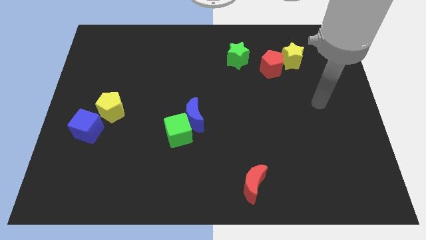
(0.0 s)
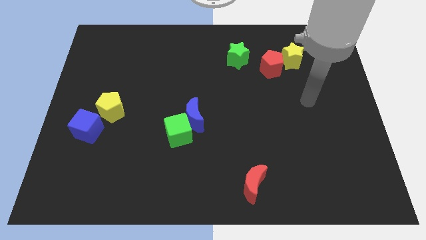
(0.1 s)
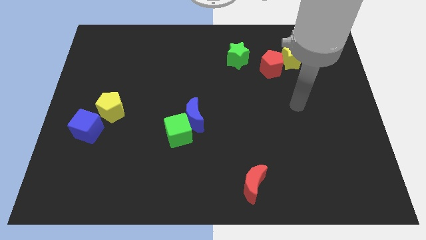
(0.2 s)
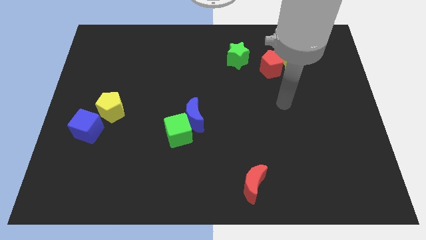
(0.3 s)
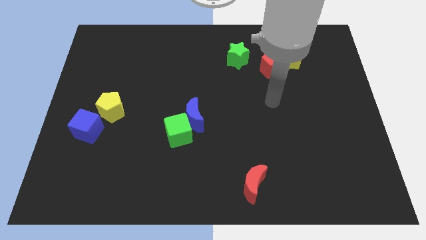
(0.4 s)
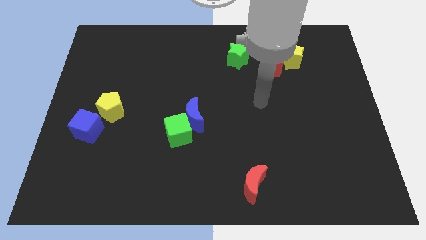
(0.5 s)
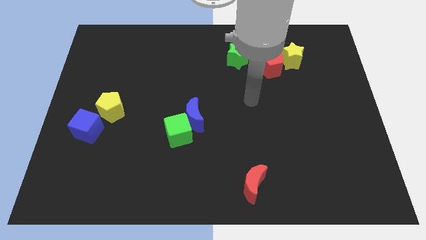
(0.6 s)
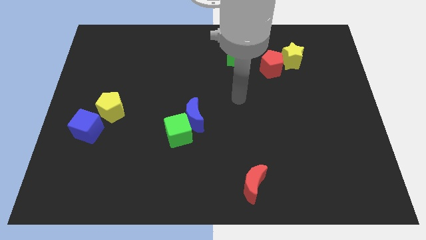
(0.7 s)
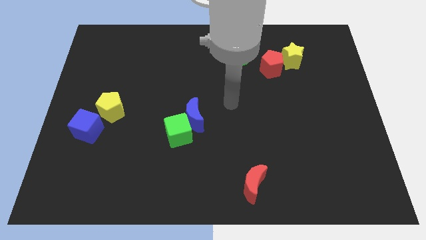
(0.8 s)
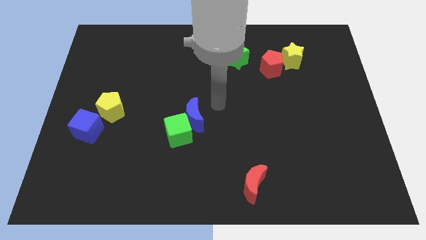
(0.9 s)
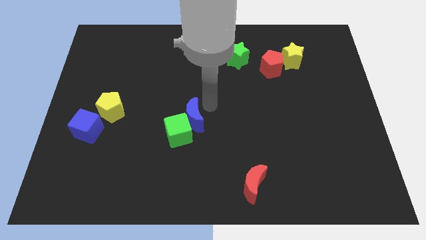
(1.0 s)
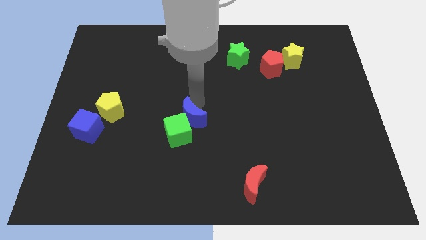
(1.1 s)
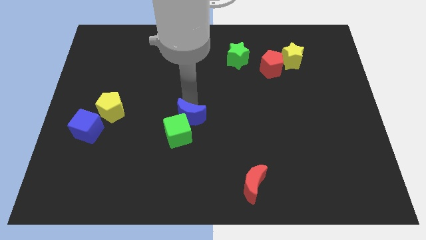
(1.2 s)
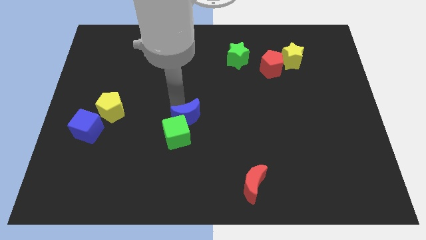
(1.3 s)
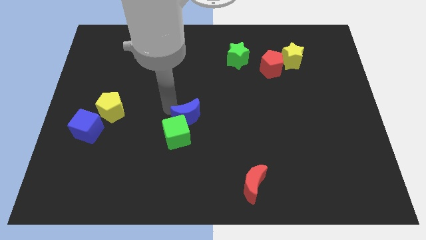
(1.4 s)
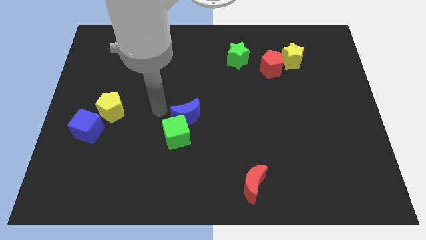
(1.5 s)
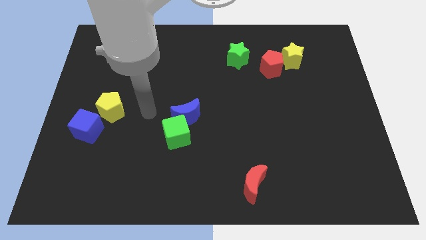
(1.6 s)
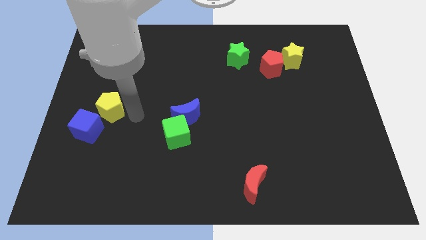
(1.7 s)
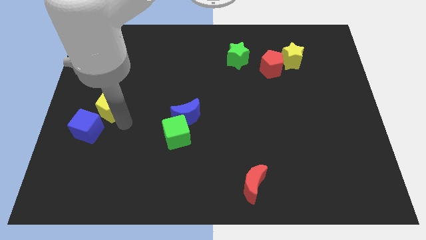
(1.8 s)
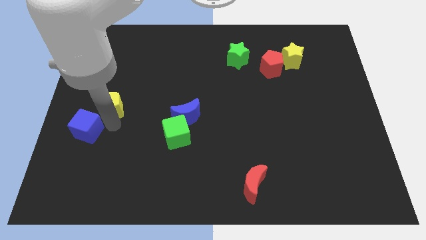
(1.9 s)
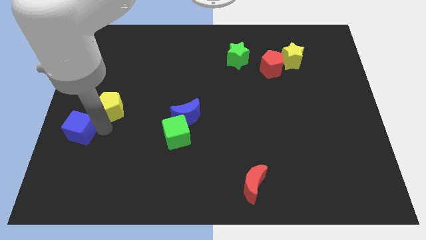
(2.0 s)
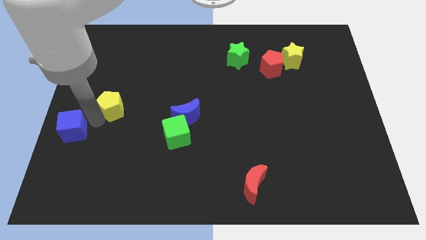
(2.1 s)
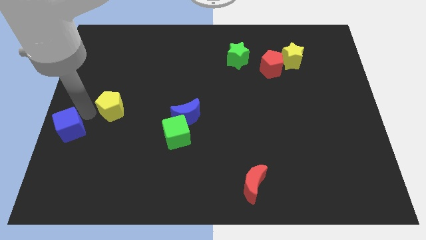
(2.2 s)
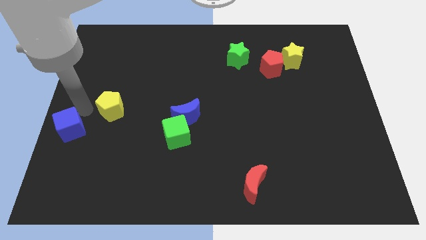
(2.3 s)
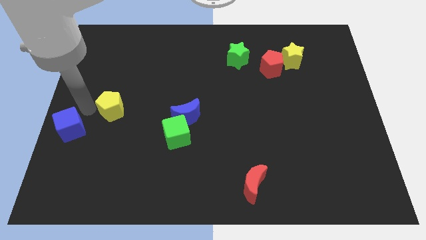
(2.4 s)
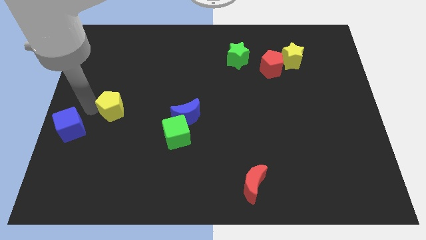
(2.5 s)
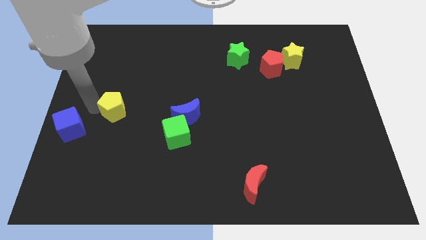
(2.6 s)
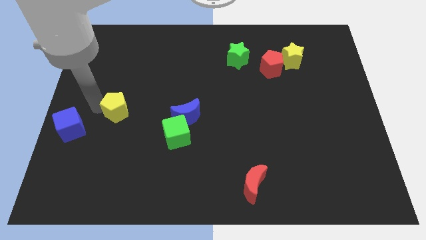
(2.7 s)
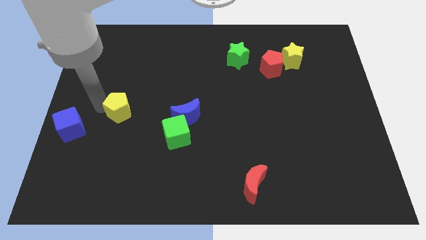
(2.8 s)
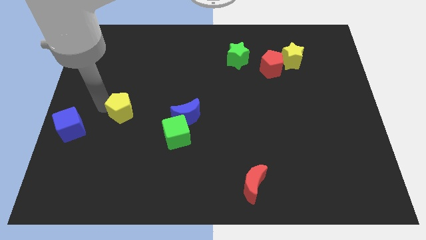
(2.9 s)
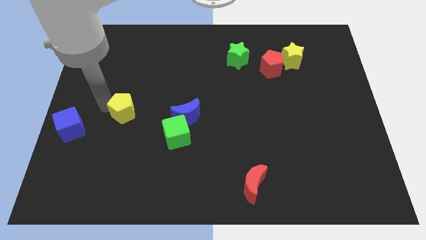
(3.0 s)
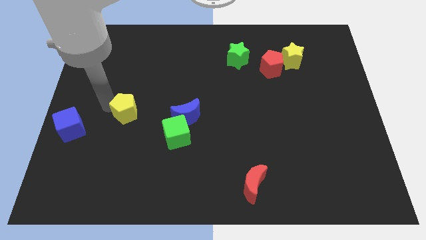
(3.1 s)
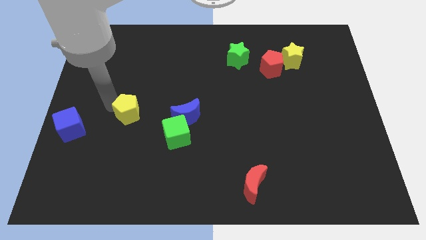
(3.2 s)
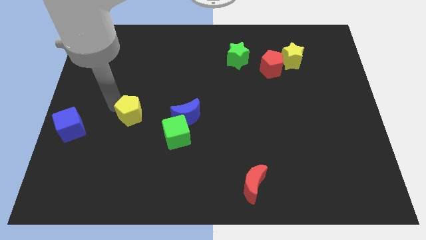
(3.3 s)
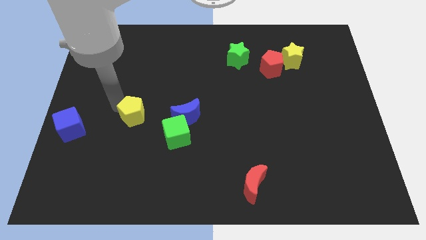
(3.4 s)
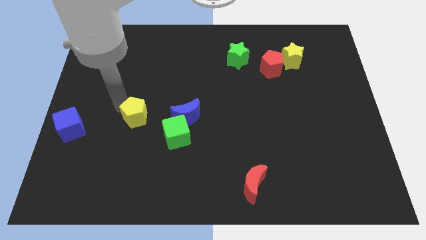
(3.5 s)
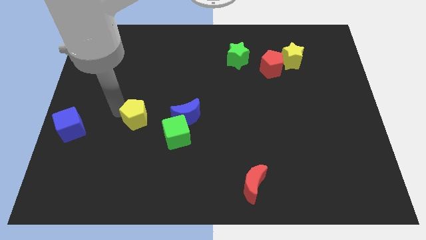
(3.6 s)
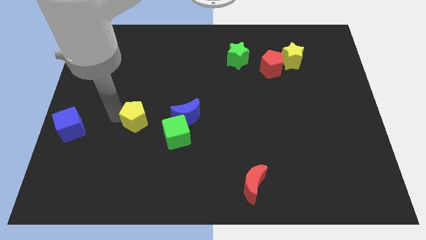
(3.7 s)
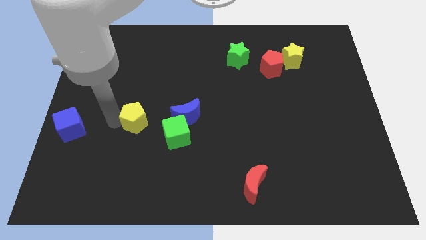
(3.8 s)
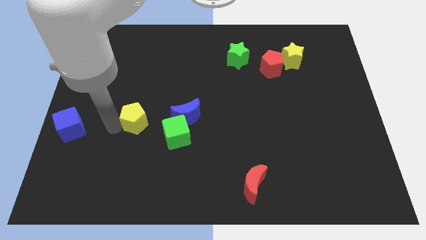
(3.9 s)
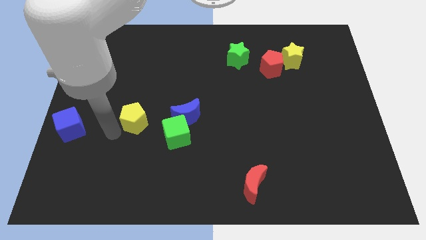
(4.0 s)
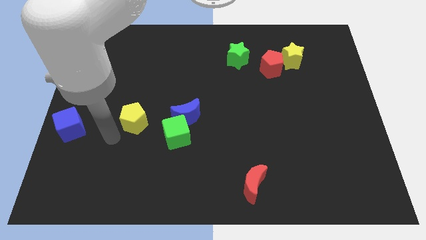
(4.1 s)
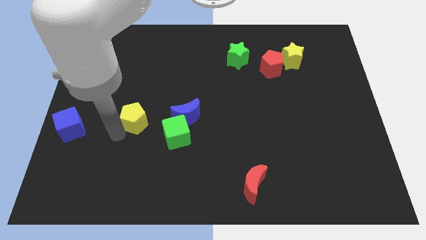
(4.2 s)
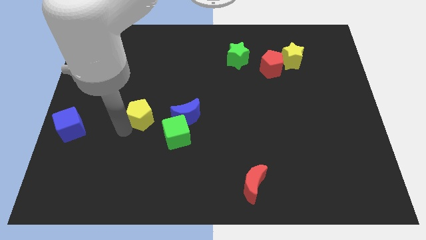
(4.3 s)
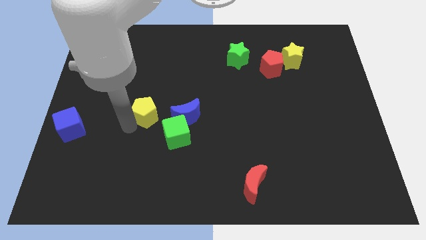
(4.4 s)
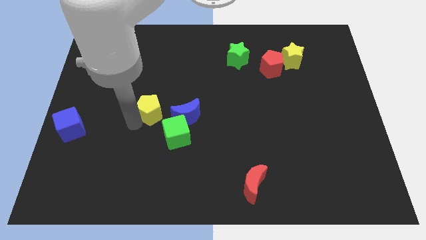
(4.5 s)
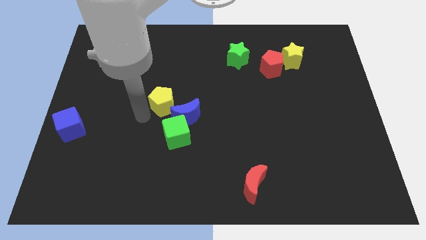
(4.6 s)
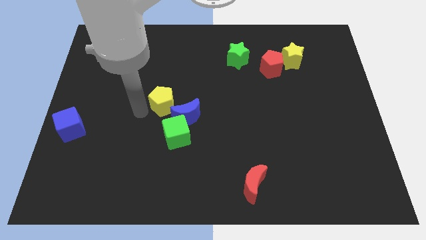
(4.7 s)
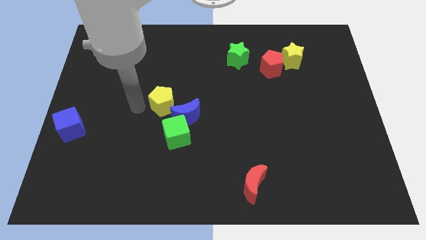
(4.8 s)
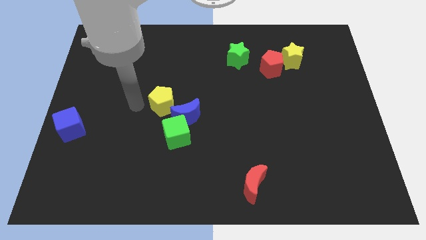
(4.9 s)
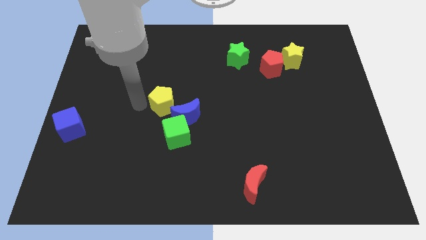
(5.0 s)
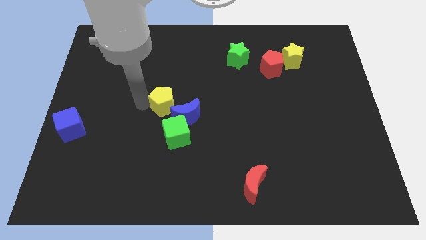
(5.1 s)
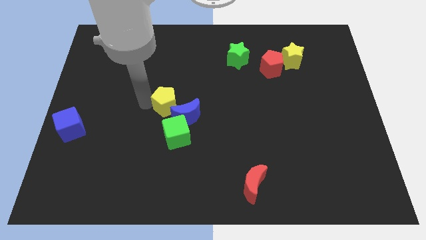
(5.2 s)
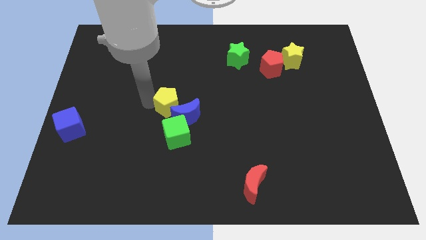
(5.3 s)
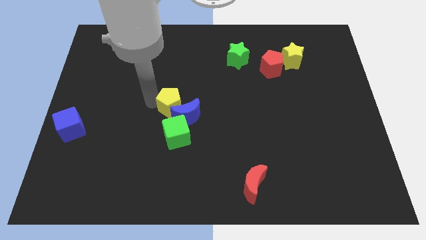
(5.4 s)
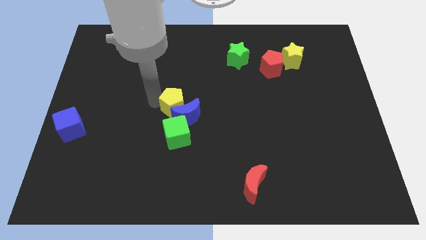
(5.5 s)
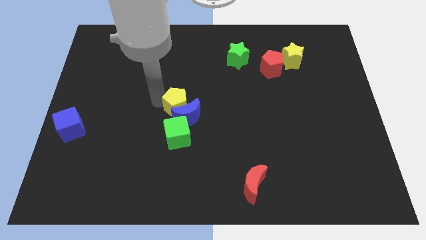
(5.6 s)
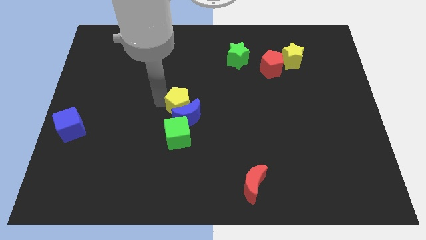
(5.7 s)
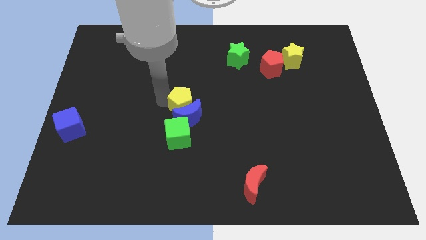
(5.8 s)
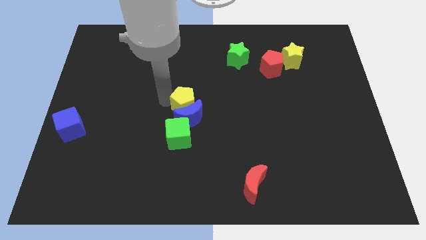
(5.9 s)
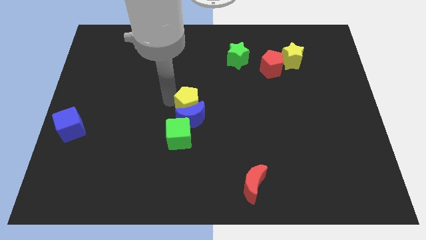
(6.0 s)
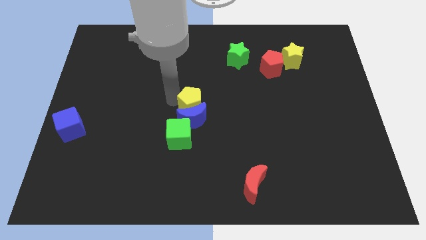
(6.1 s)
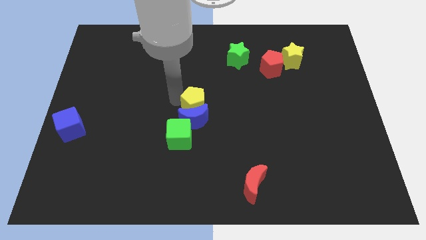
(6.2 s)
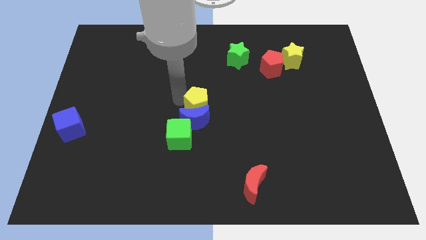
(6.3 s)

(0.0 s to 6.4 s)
slide the yellow pentagon right

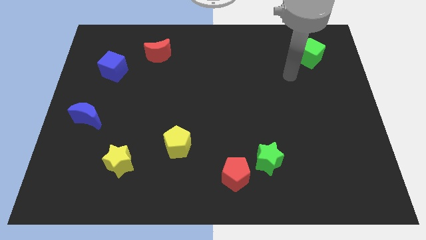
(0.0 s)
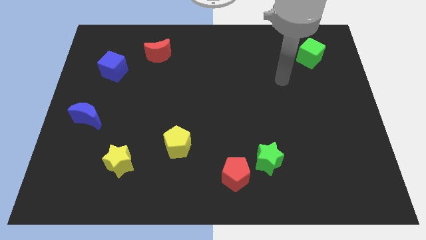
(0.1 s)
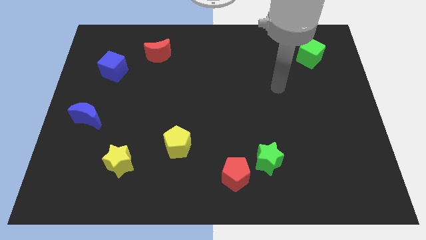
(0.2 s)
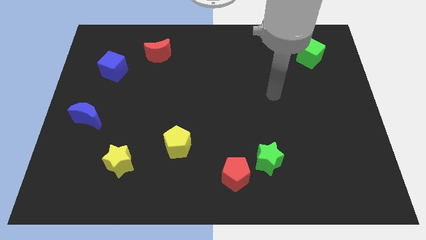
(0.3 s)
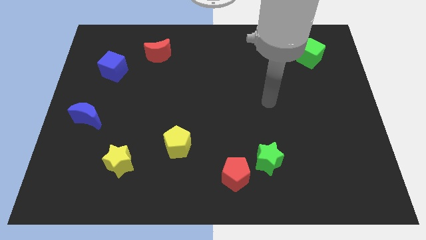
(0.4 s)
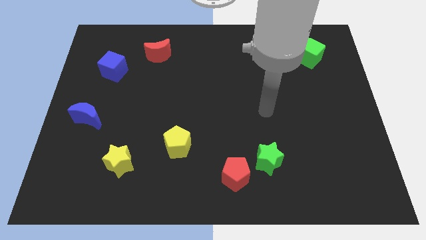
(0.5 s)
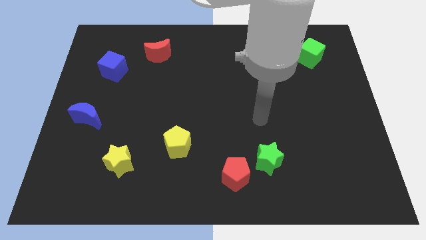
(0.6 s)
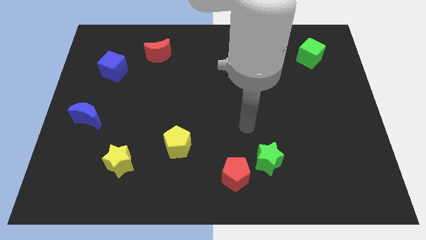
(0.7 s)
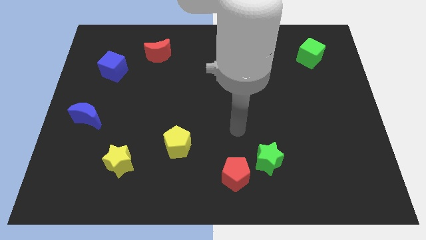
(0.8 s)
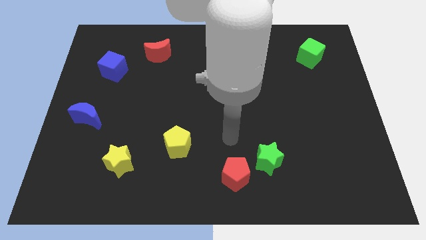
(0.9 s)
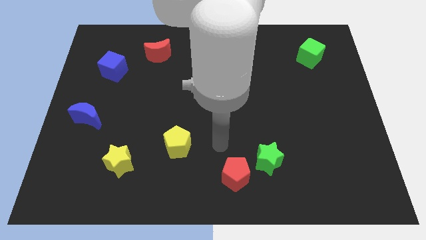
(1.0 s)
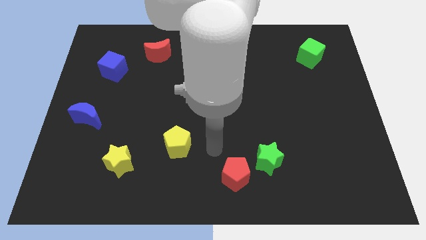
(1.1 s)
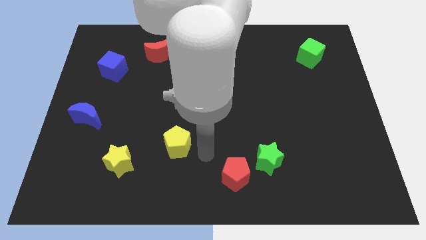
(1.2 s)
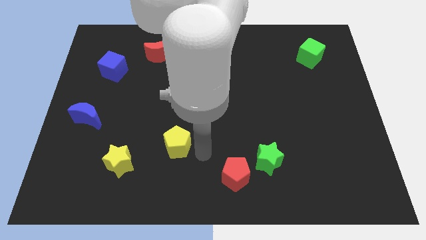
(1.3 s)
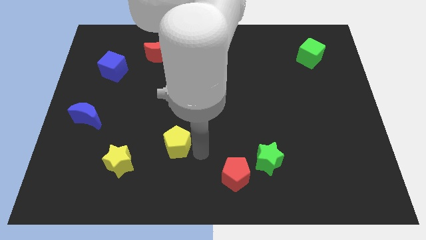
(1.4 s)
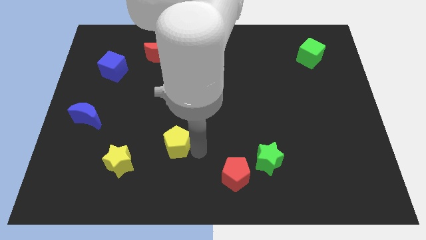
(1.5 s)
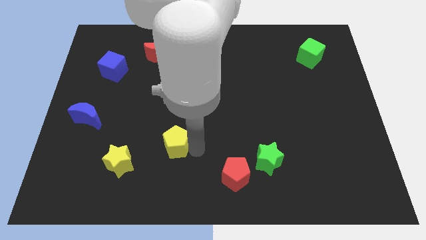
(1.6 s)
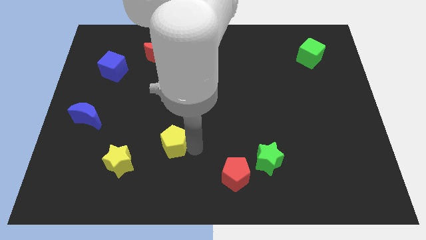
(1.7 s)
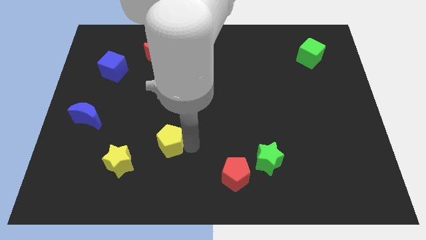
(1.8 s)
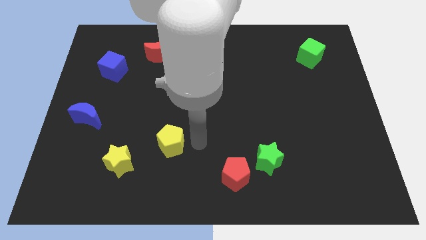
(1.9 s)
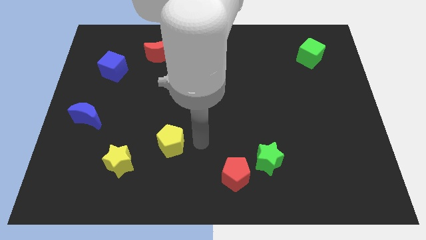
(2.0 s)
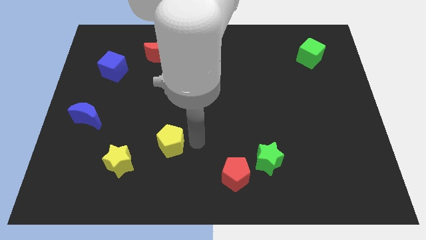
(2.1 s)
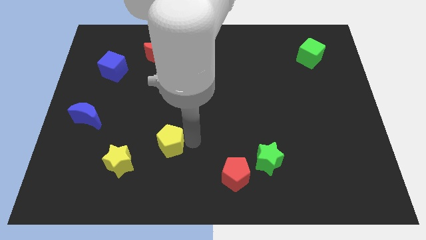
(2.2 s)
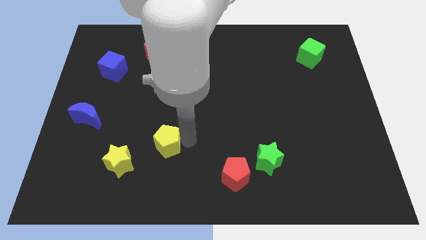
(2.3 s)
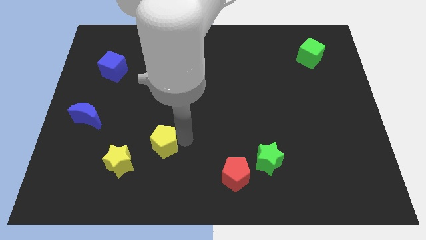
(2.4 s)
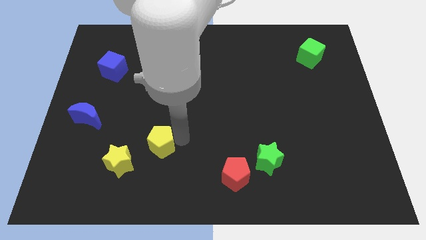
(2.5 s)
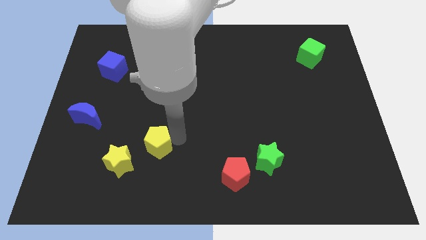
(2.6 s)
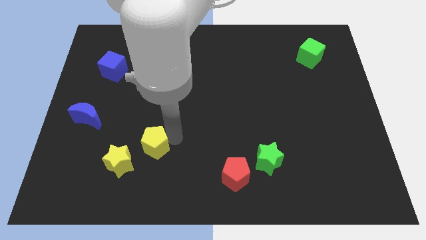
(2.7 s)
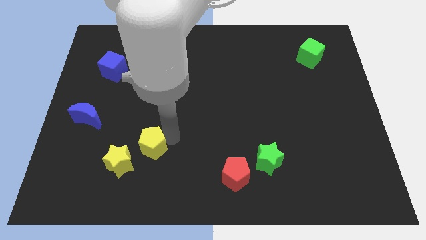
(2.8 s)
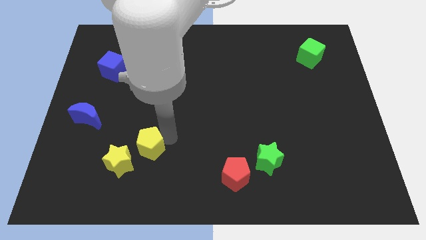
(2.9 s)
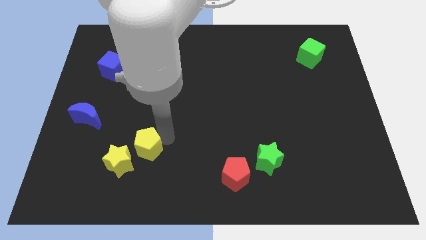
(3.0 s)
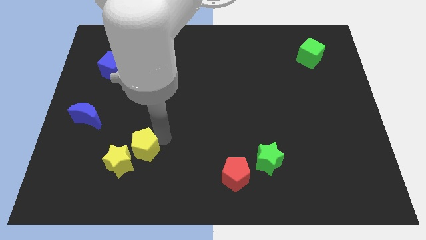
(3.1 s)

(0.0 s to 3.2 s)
slide the yellow pentagon a little to the left
